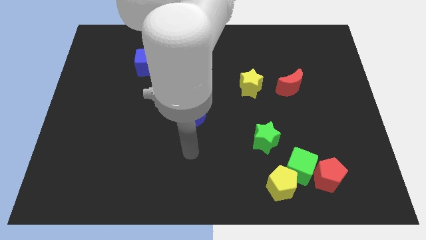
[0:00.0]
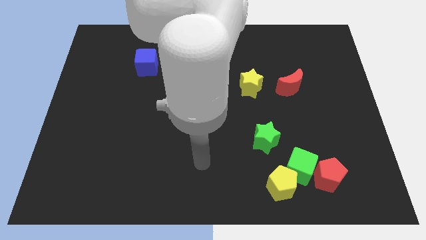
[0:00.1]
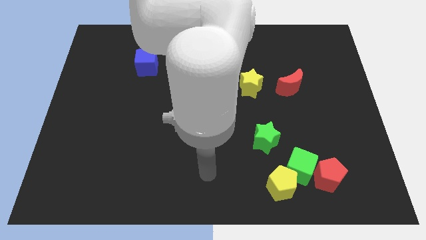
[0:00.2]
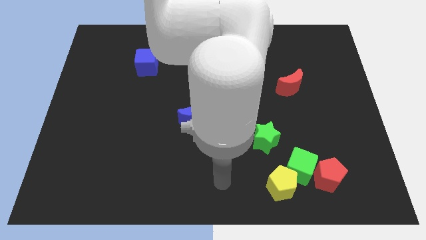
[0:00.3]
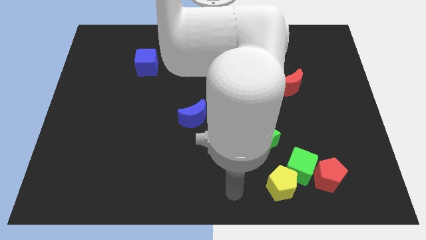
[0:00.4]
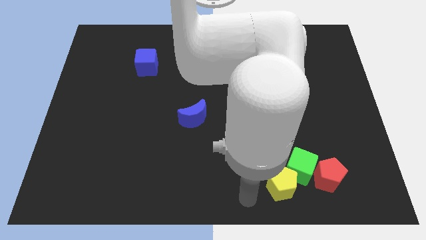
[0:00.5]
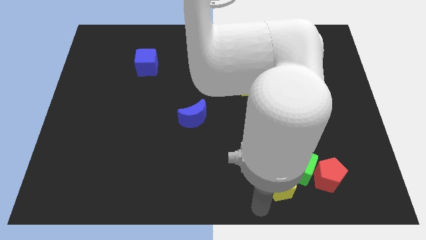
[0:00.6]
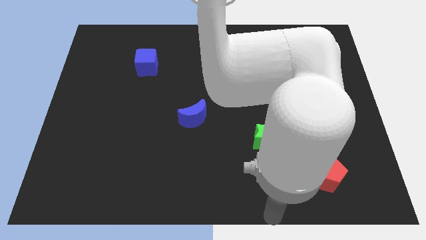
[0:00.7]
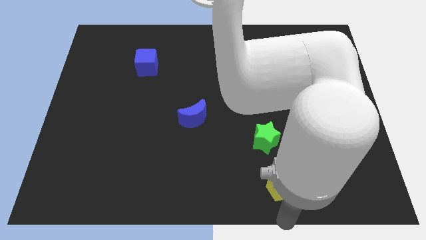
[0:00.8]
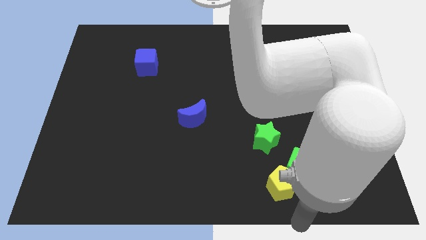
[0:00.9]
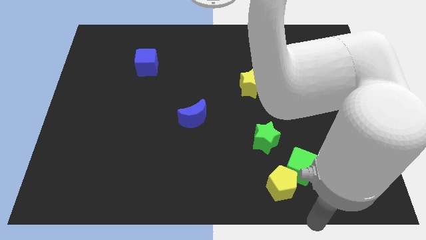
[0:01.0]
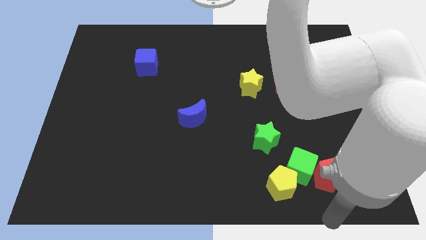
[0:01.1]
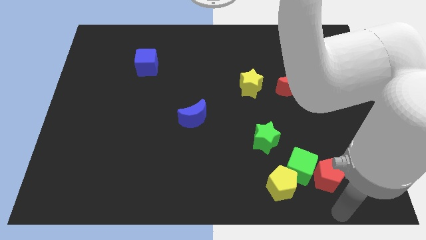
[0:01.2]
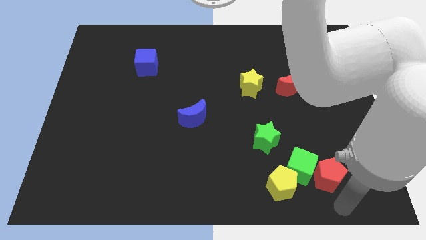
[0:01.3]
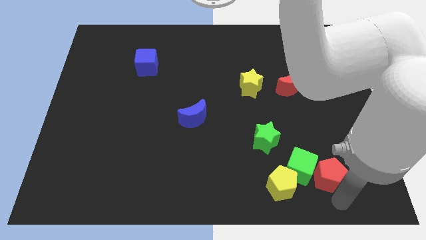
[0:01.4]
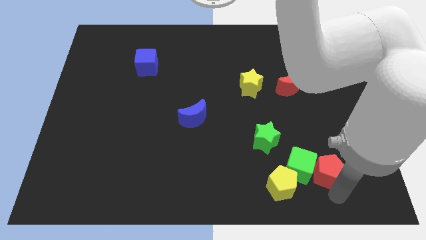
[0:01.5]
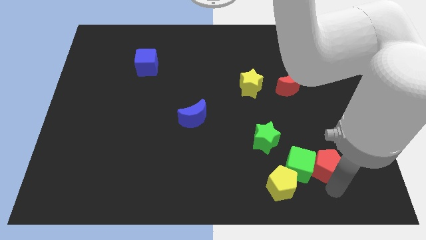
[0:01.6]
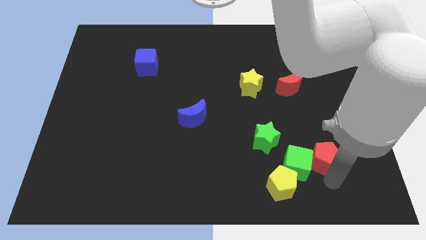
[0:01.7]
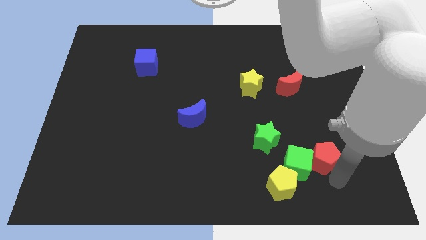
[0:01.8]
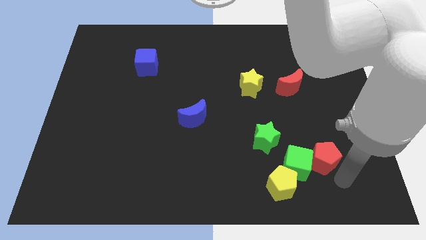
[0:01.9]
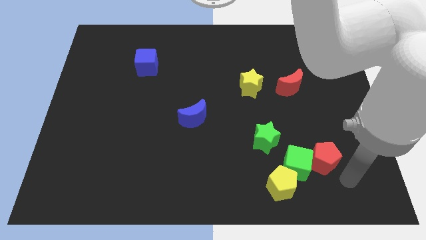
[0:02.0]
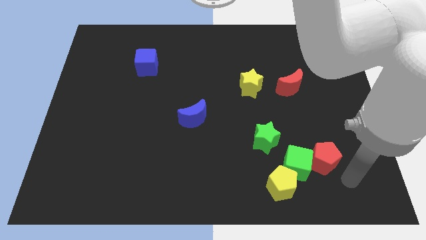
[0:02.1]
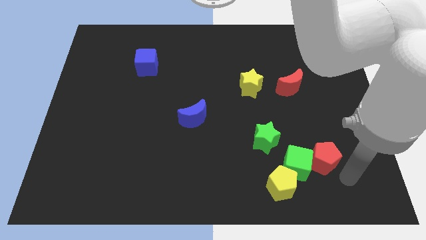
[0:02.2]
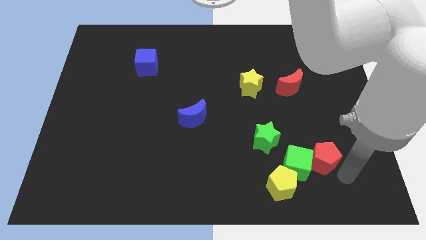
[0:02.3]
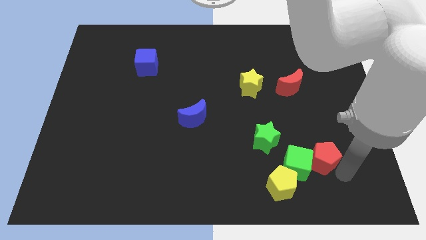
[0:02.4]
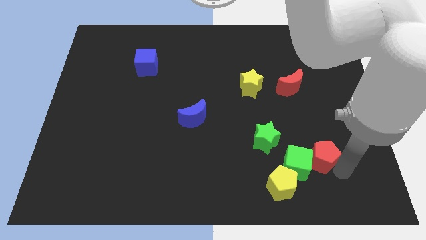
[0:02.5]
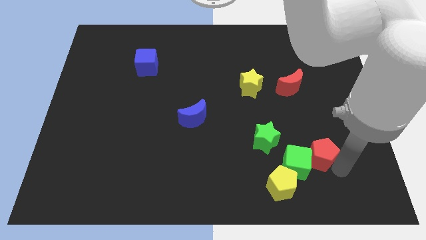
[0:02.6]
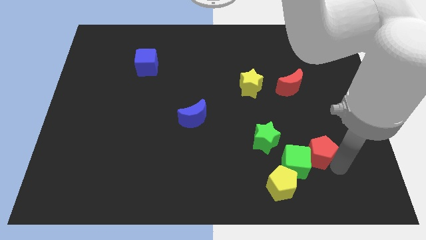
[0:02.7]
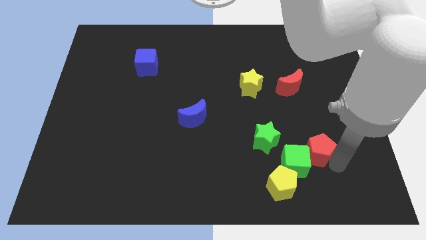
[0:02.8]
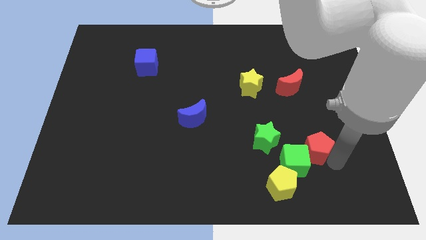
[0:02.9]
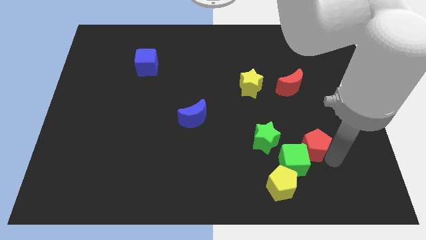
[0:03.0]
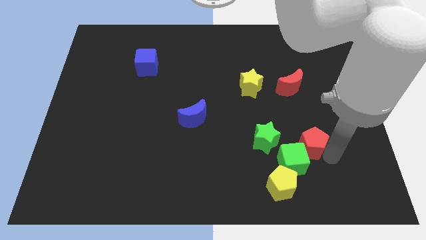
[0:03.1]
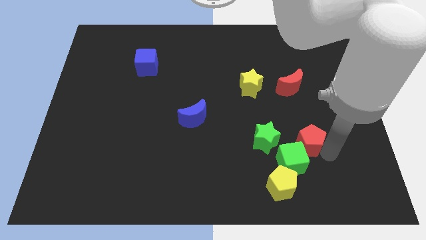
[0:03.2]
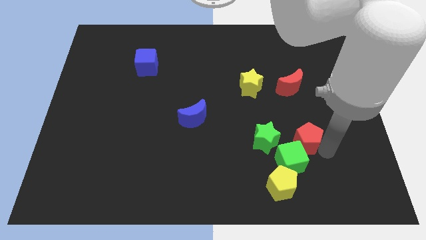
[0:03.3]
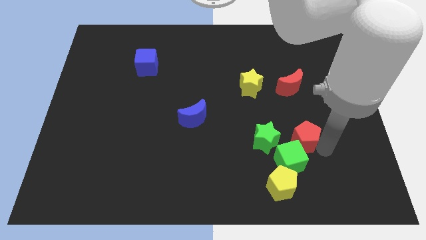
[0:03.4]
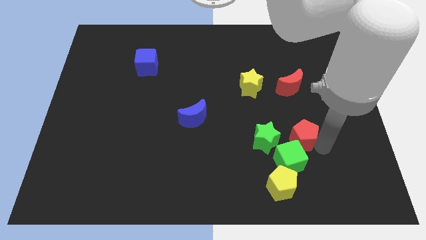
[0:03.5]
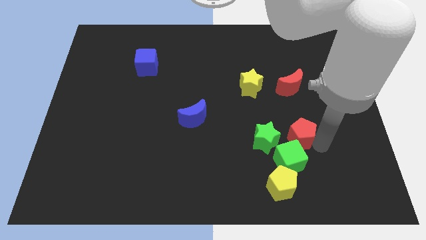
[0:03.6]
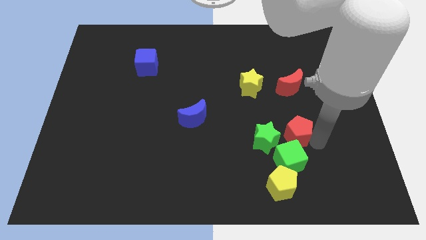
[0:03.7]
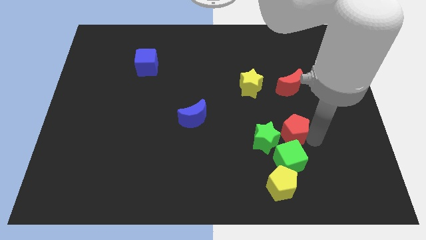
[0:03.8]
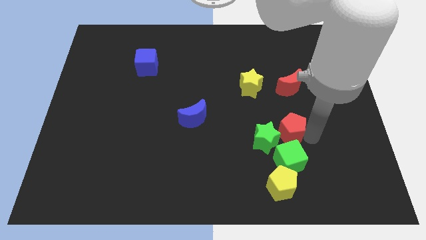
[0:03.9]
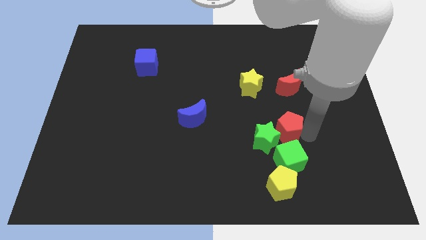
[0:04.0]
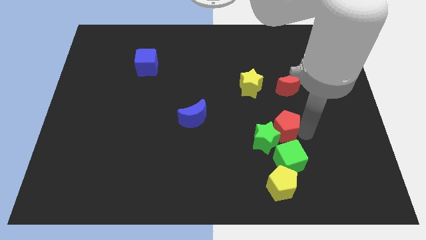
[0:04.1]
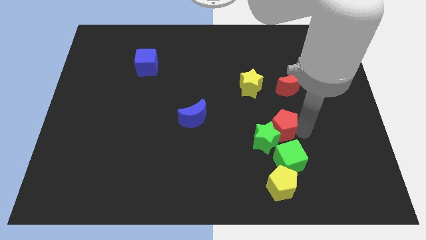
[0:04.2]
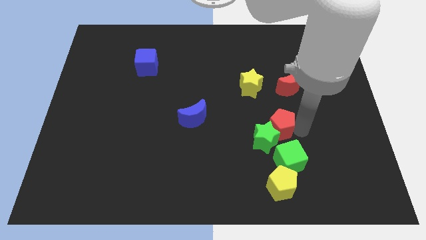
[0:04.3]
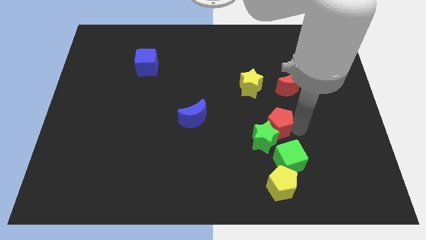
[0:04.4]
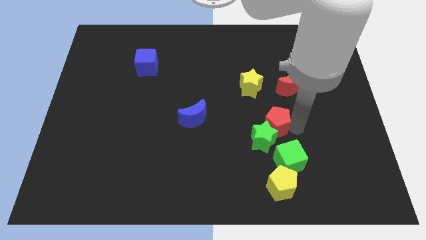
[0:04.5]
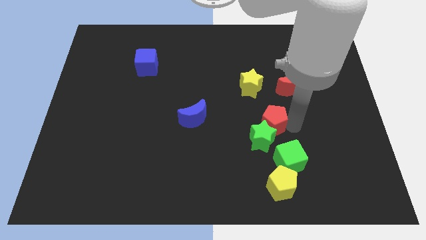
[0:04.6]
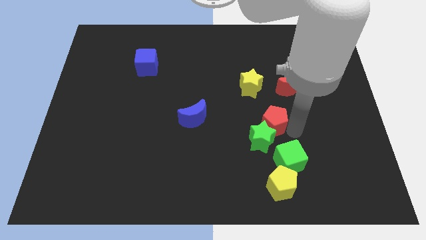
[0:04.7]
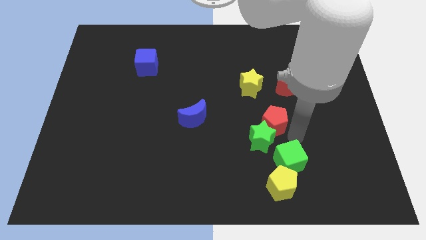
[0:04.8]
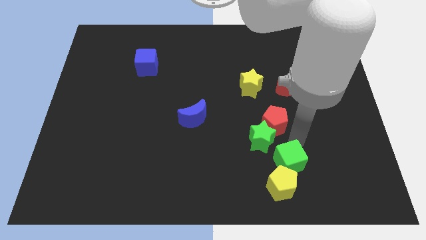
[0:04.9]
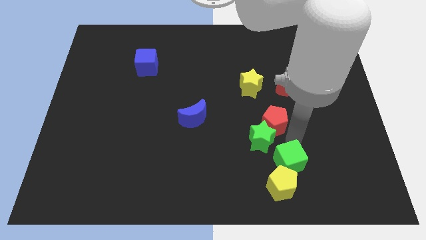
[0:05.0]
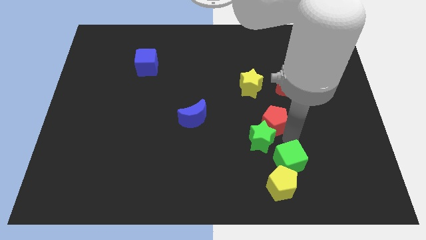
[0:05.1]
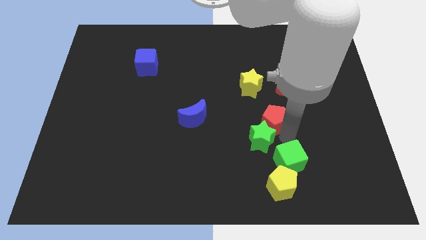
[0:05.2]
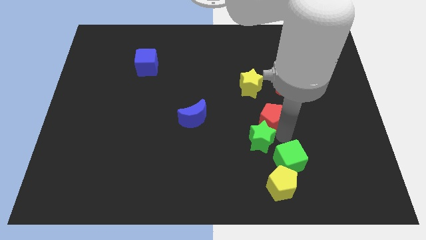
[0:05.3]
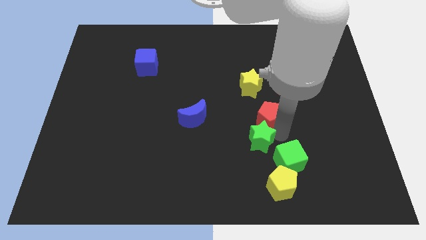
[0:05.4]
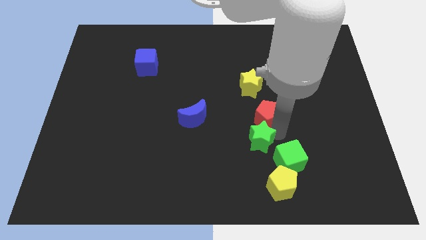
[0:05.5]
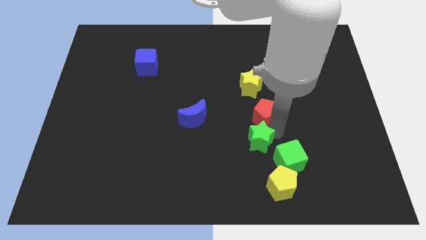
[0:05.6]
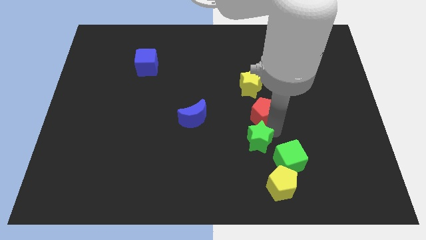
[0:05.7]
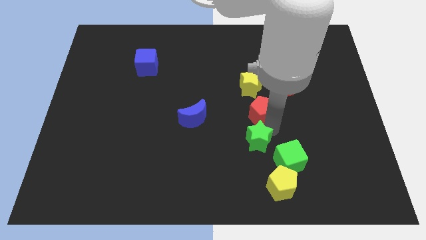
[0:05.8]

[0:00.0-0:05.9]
push the red pentagon up and then left

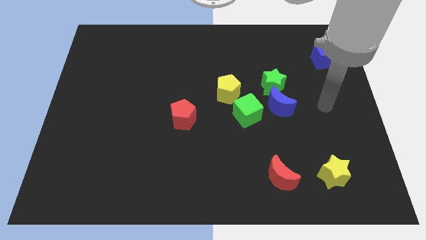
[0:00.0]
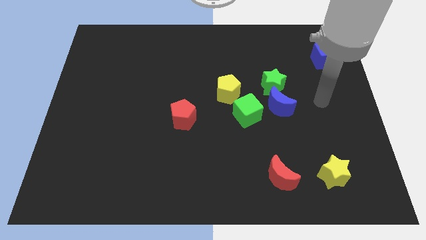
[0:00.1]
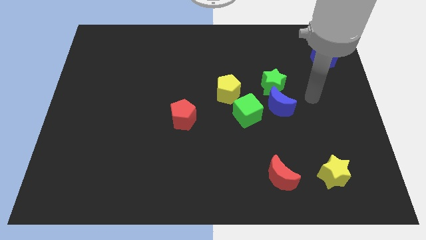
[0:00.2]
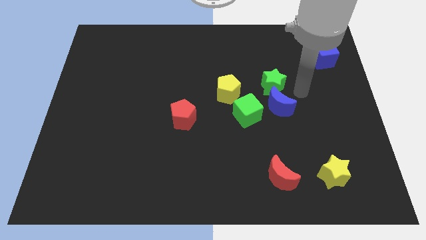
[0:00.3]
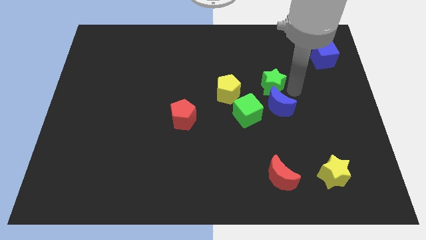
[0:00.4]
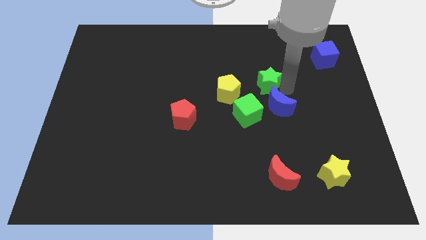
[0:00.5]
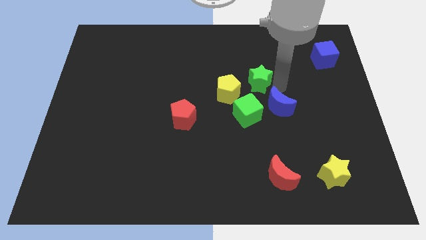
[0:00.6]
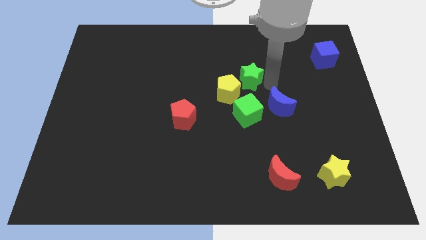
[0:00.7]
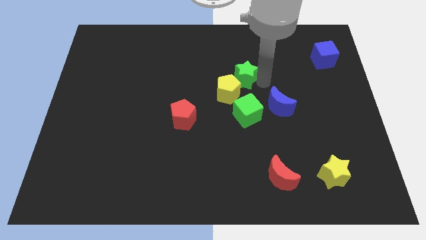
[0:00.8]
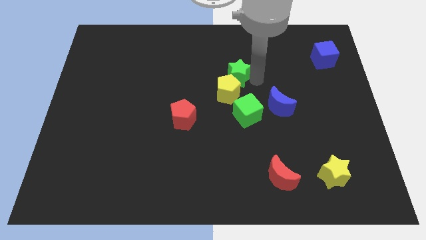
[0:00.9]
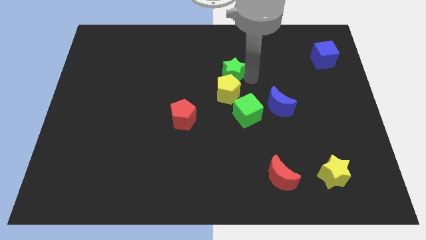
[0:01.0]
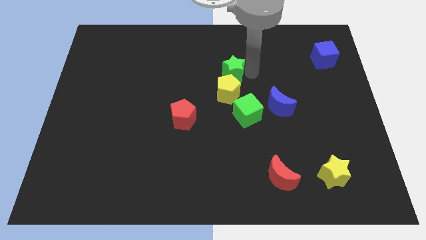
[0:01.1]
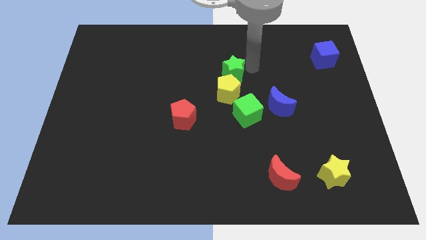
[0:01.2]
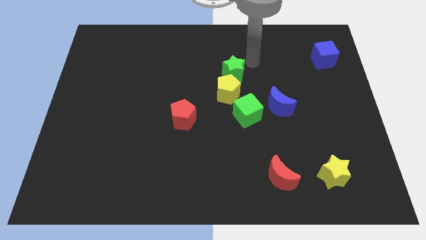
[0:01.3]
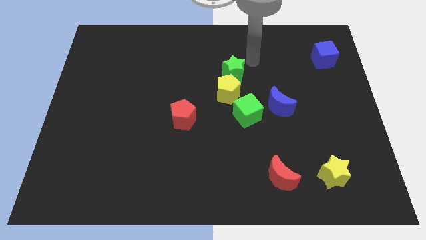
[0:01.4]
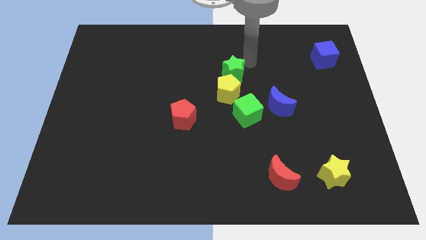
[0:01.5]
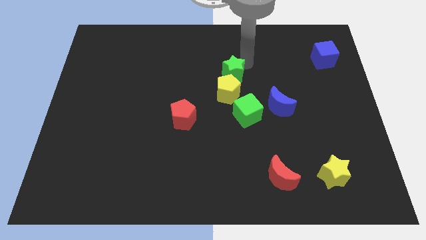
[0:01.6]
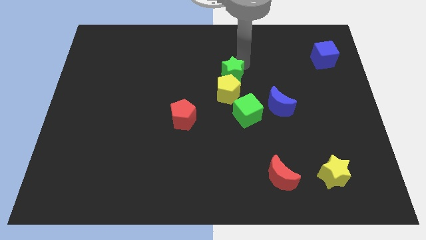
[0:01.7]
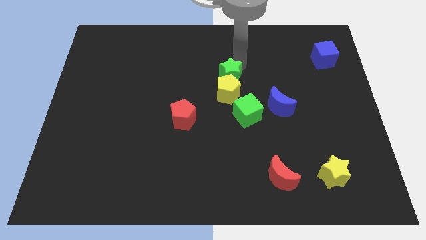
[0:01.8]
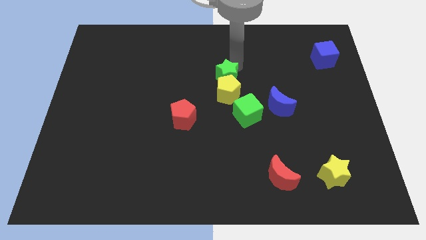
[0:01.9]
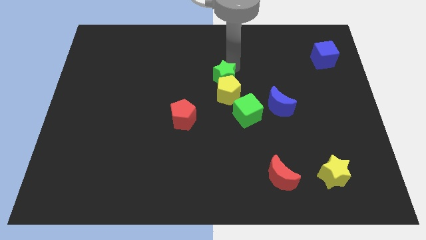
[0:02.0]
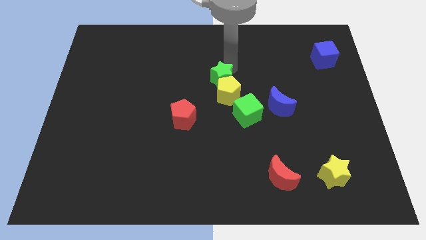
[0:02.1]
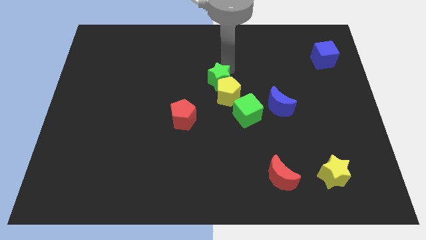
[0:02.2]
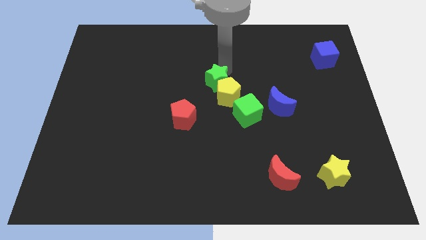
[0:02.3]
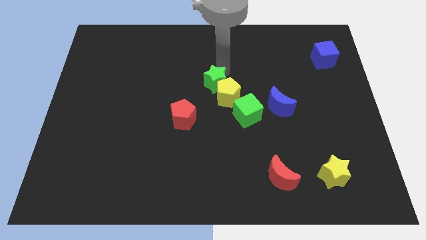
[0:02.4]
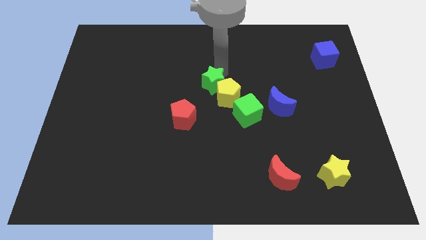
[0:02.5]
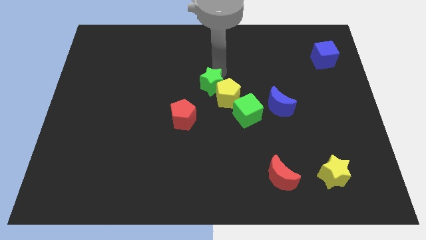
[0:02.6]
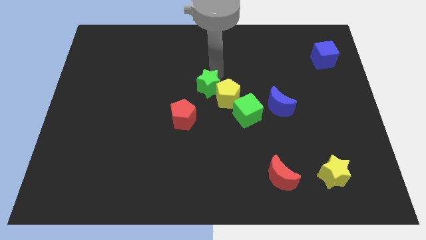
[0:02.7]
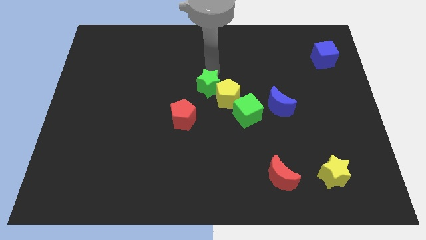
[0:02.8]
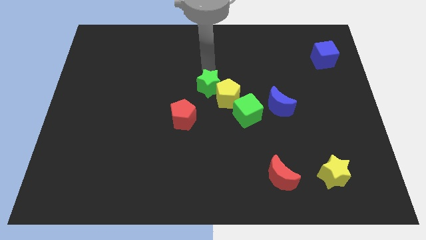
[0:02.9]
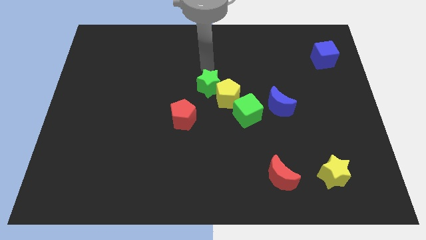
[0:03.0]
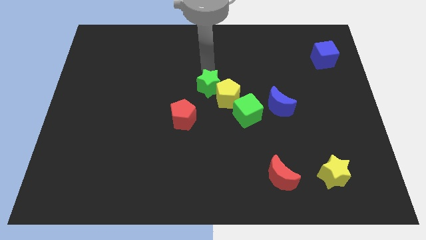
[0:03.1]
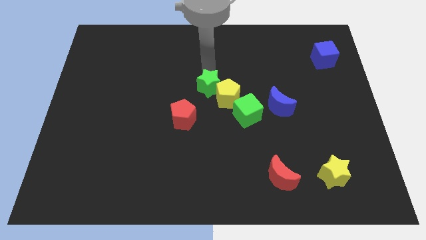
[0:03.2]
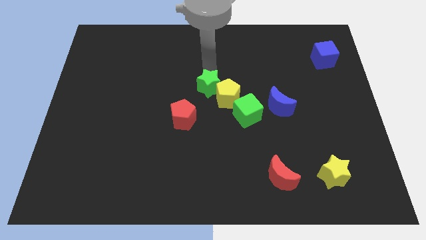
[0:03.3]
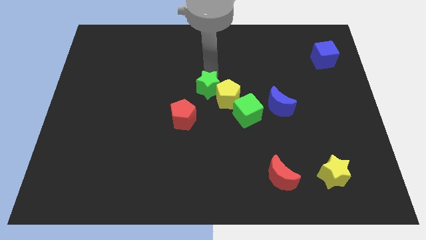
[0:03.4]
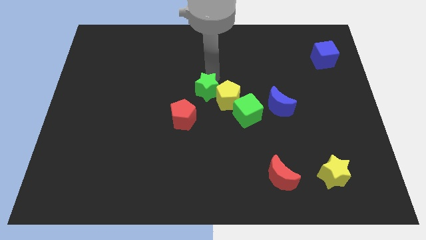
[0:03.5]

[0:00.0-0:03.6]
slightly move the green star down and to the left
